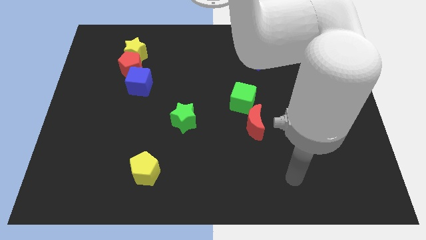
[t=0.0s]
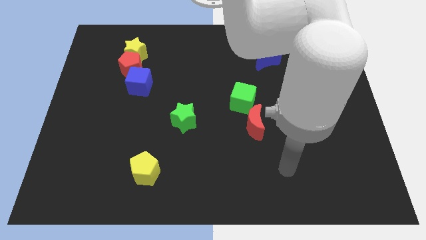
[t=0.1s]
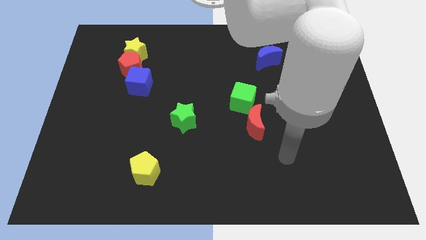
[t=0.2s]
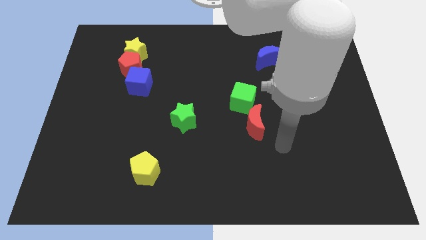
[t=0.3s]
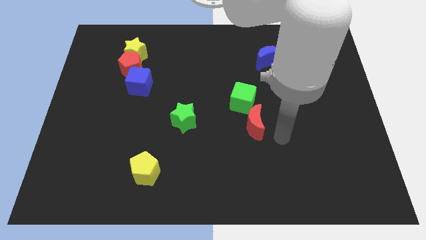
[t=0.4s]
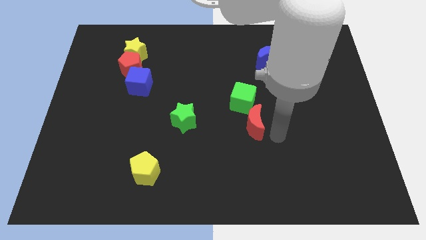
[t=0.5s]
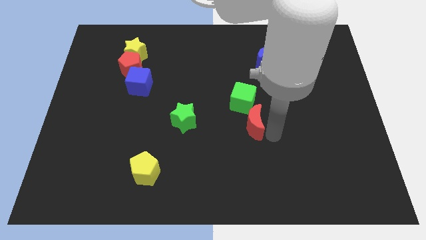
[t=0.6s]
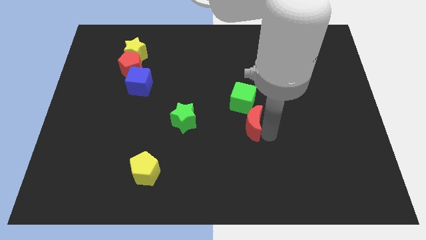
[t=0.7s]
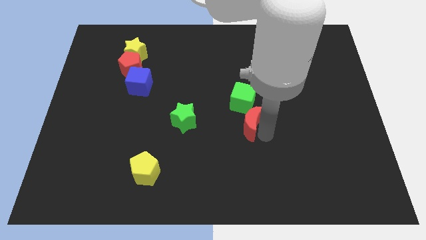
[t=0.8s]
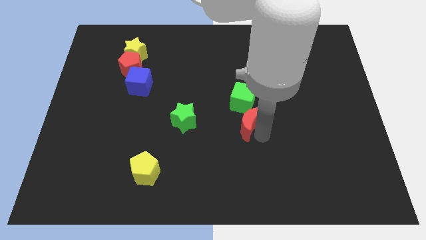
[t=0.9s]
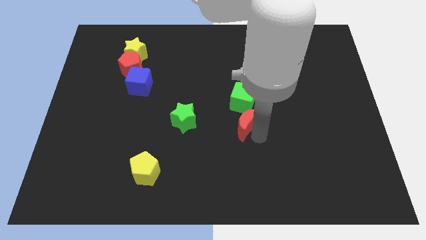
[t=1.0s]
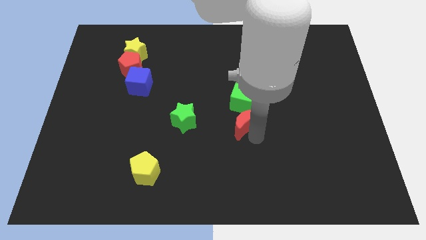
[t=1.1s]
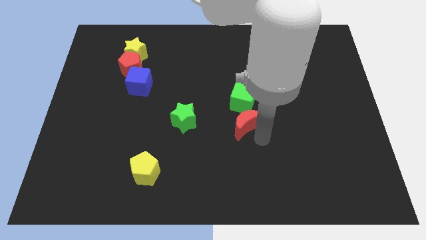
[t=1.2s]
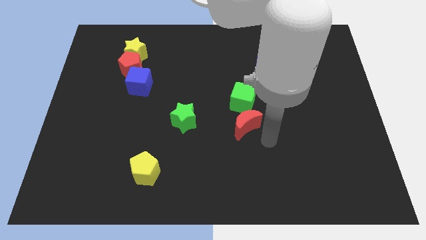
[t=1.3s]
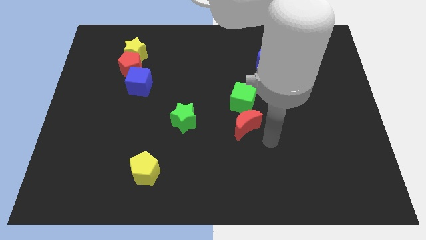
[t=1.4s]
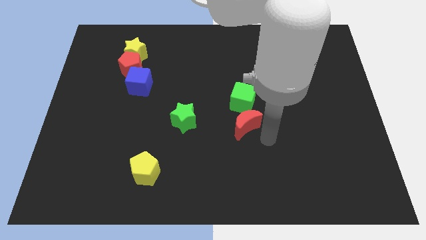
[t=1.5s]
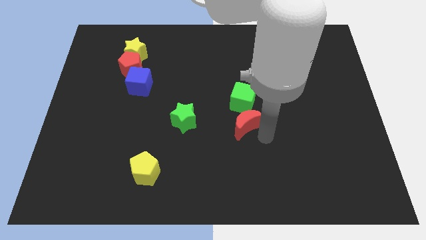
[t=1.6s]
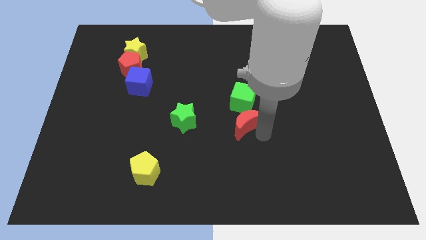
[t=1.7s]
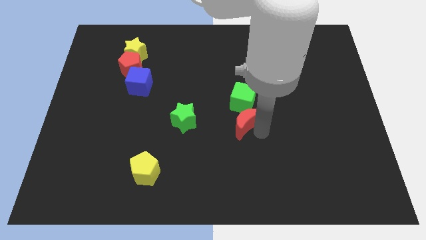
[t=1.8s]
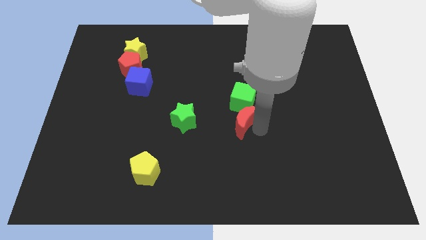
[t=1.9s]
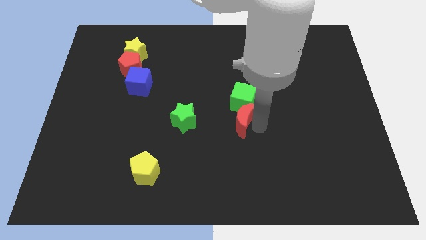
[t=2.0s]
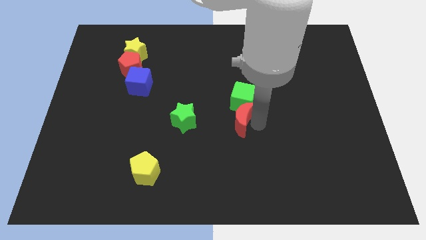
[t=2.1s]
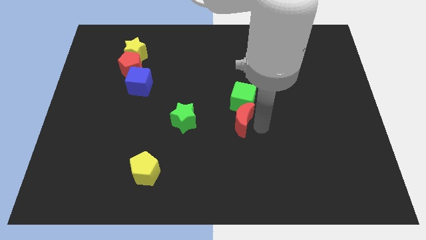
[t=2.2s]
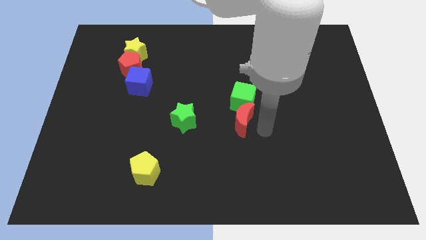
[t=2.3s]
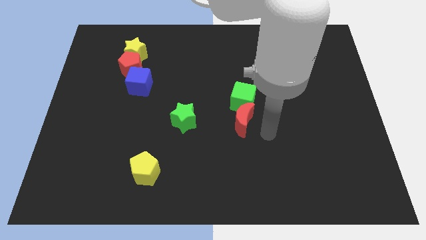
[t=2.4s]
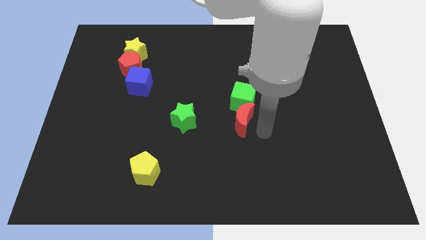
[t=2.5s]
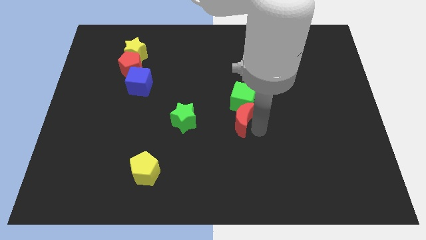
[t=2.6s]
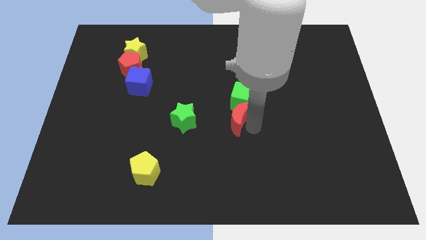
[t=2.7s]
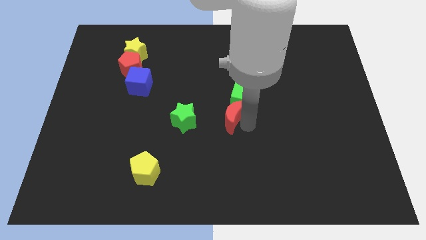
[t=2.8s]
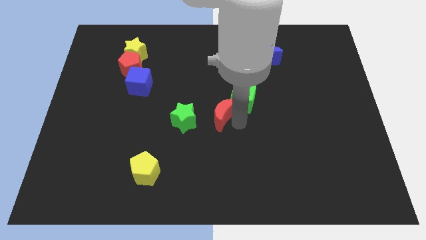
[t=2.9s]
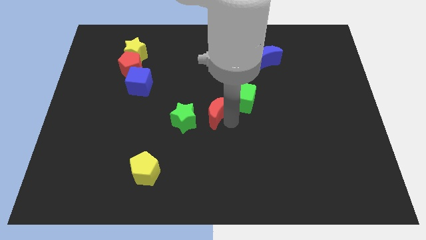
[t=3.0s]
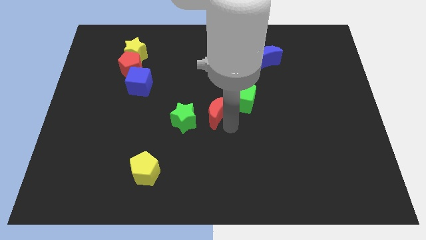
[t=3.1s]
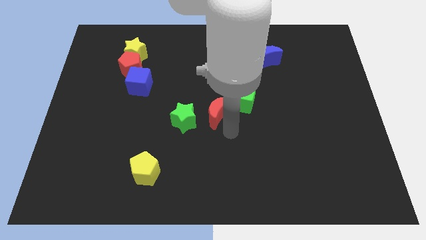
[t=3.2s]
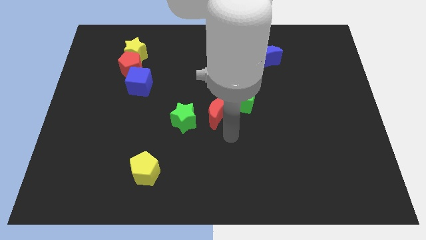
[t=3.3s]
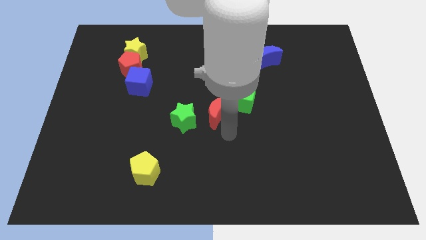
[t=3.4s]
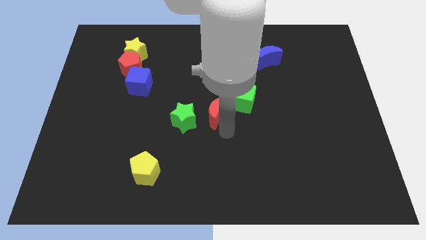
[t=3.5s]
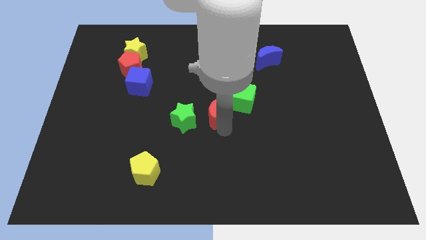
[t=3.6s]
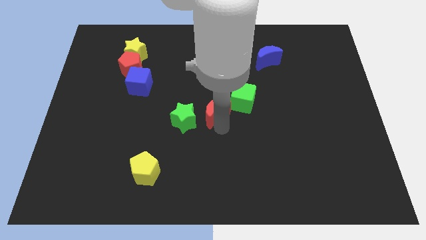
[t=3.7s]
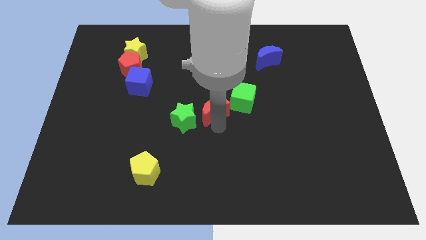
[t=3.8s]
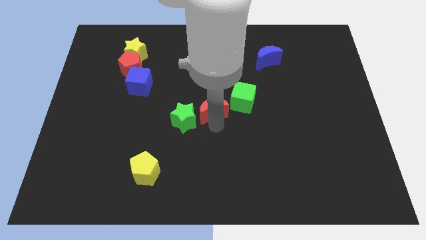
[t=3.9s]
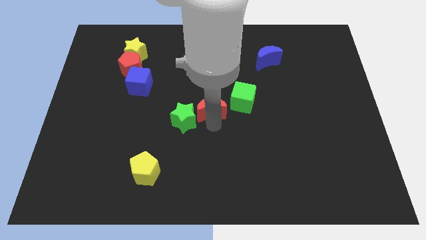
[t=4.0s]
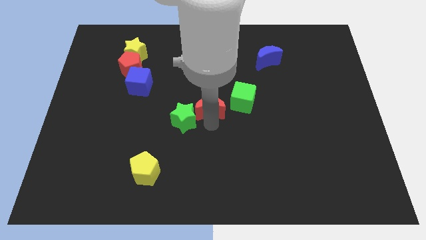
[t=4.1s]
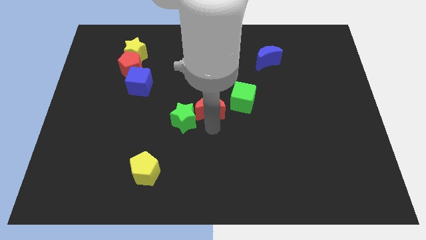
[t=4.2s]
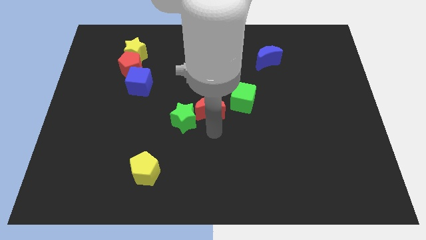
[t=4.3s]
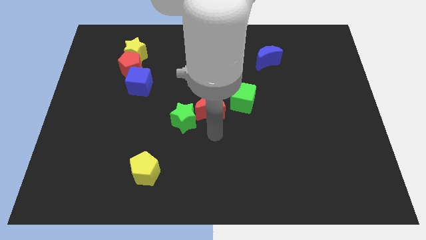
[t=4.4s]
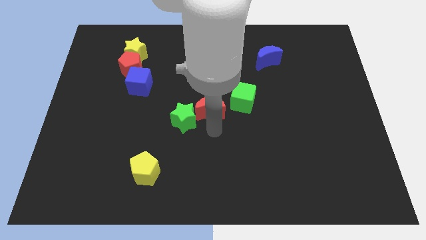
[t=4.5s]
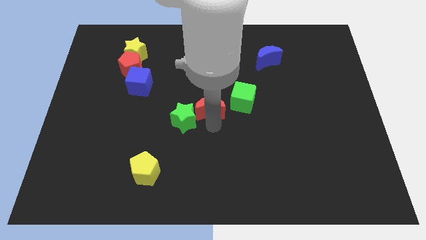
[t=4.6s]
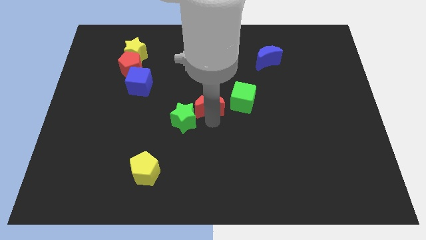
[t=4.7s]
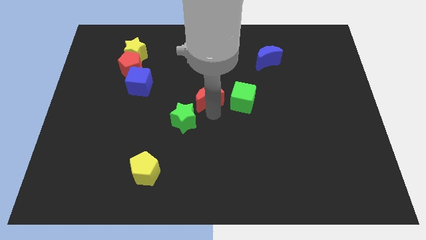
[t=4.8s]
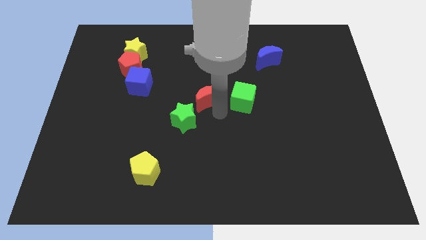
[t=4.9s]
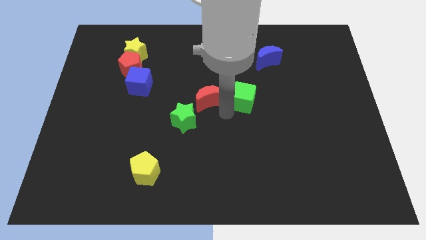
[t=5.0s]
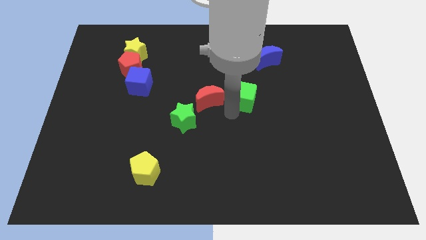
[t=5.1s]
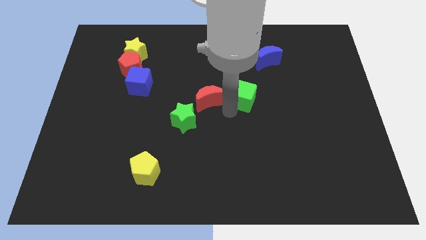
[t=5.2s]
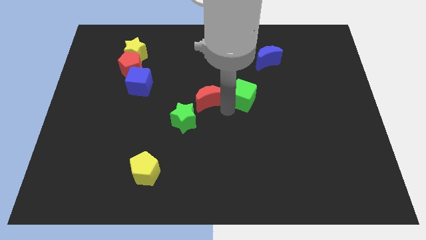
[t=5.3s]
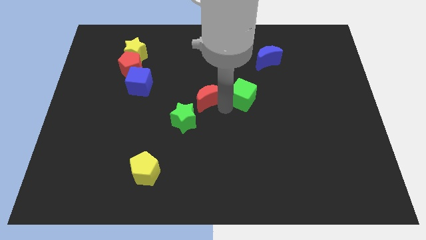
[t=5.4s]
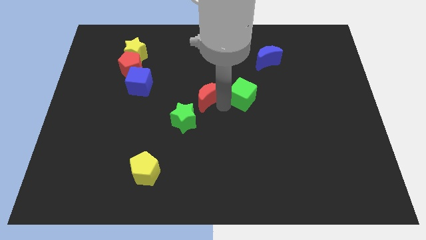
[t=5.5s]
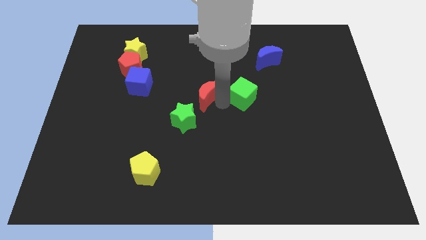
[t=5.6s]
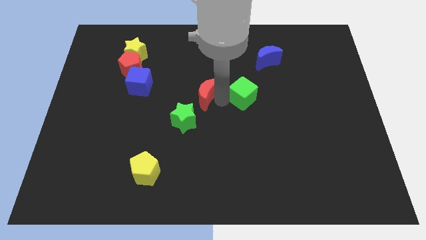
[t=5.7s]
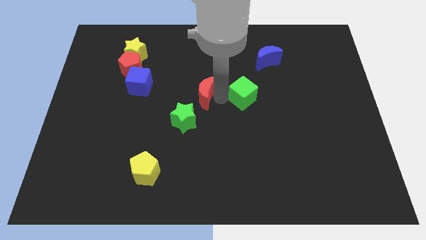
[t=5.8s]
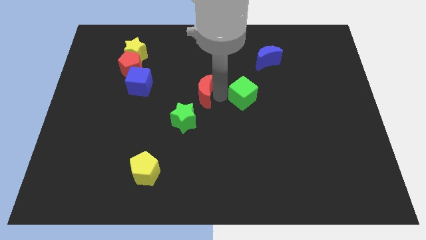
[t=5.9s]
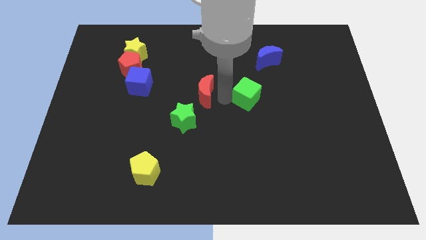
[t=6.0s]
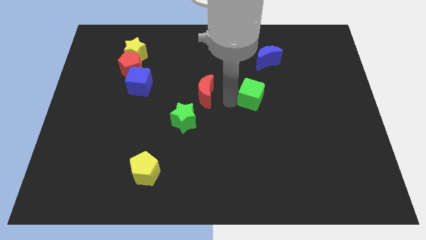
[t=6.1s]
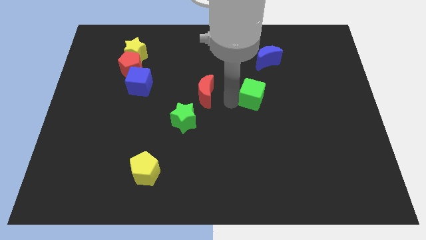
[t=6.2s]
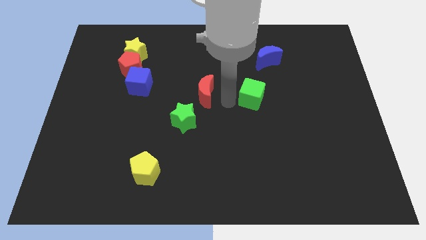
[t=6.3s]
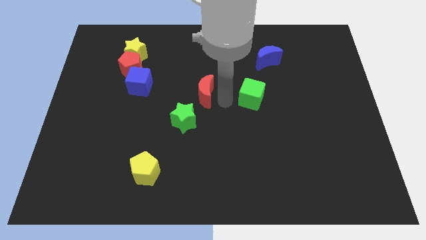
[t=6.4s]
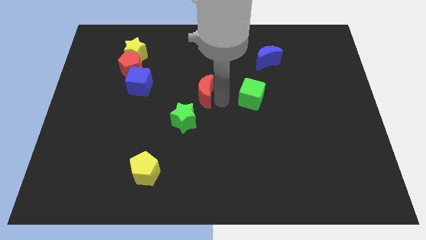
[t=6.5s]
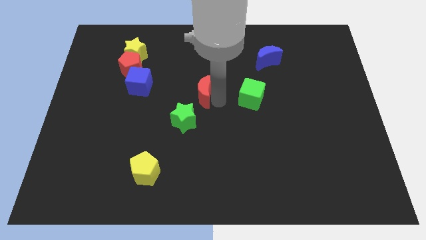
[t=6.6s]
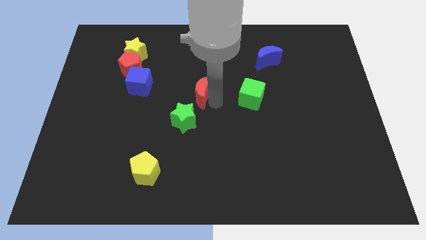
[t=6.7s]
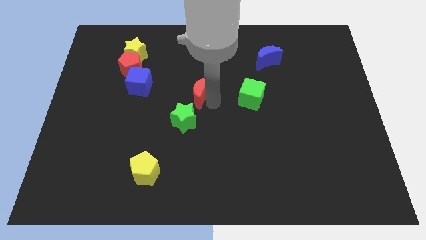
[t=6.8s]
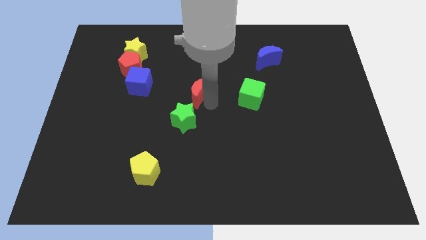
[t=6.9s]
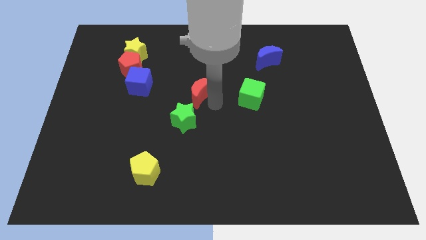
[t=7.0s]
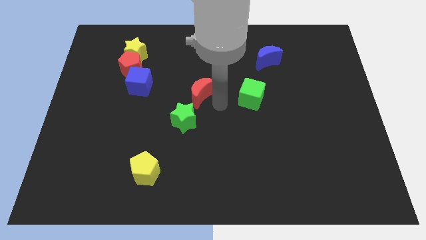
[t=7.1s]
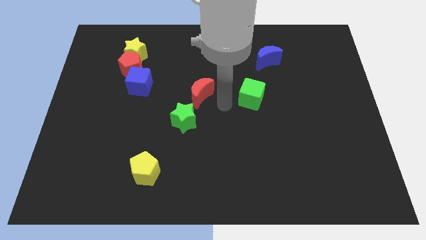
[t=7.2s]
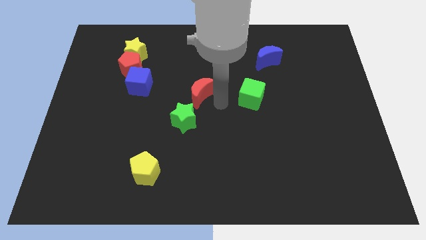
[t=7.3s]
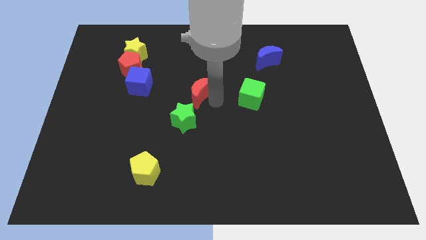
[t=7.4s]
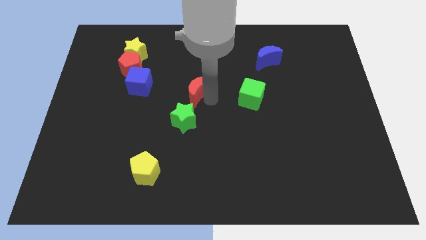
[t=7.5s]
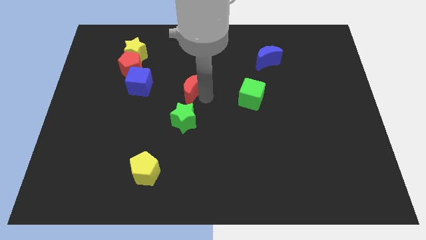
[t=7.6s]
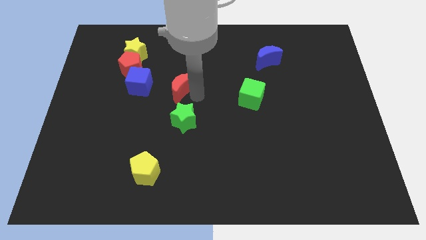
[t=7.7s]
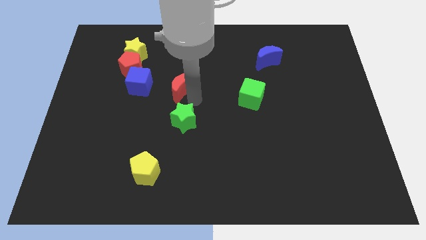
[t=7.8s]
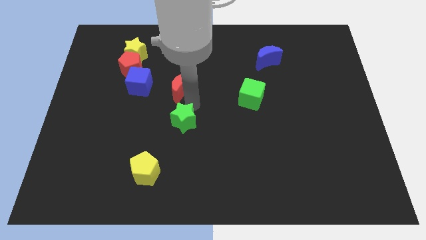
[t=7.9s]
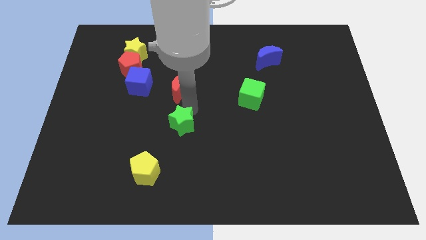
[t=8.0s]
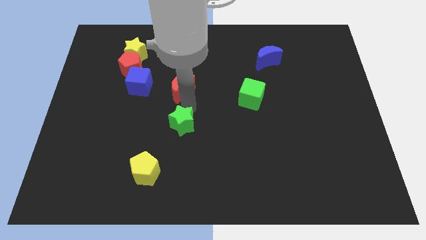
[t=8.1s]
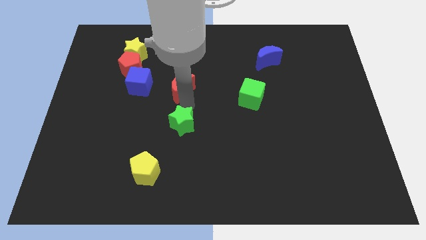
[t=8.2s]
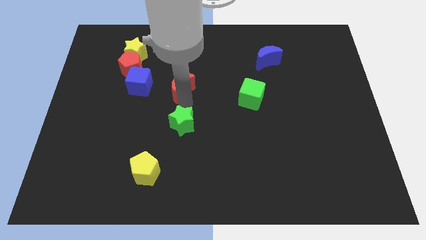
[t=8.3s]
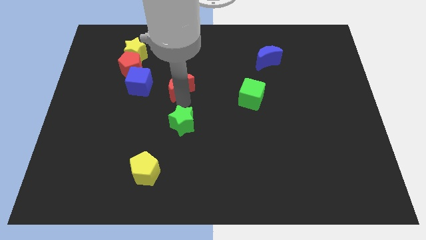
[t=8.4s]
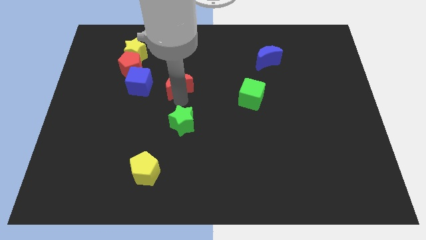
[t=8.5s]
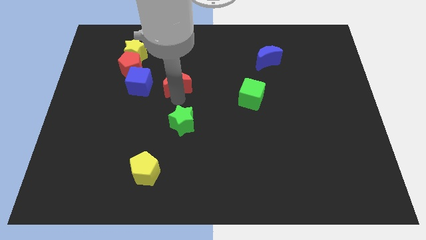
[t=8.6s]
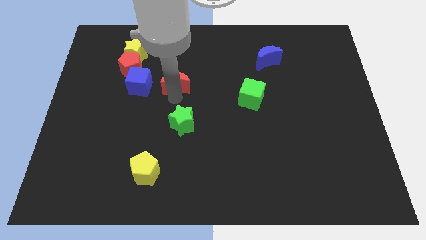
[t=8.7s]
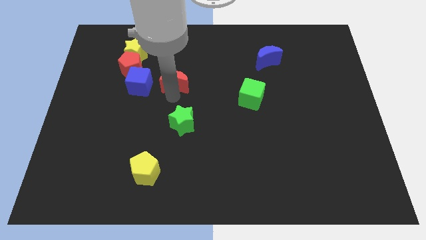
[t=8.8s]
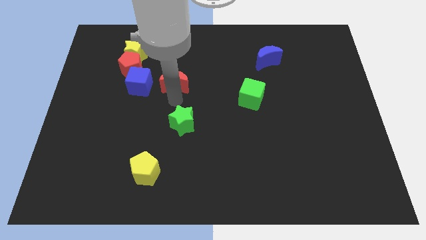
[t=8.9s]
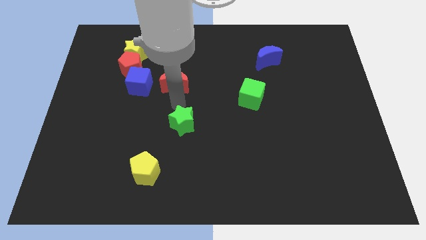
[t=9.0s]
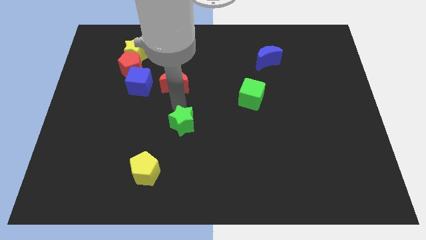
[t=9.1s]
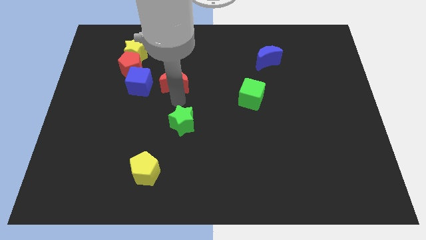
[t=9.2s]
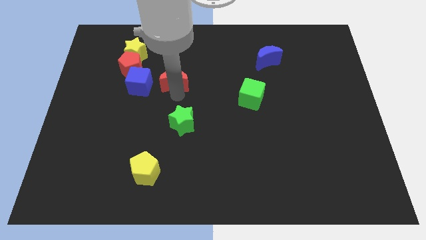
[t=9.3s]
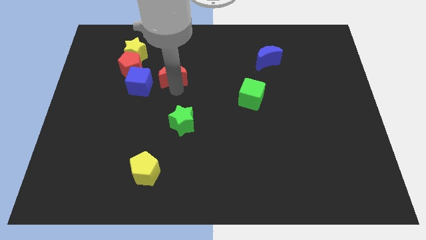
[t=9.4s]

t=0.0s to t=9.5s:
push the red moon right of the red pentagon
